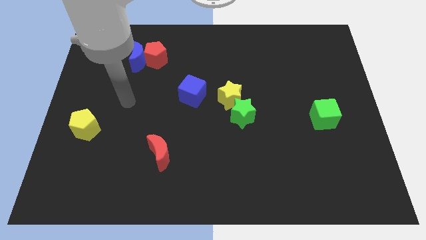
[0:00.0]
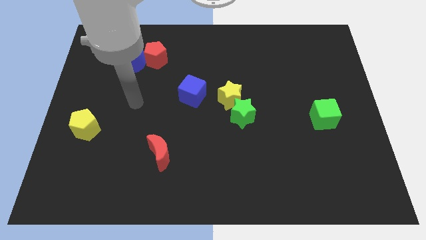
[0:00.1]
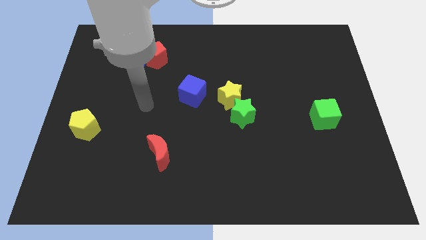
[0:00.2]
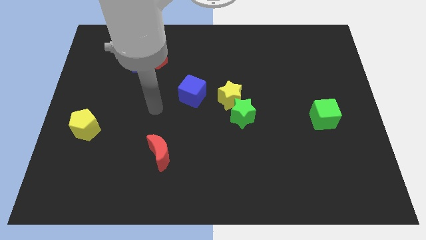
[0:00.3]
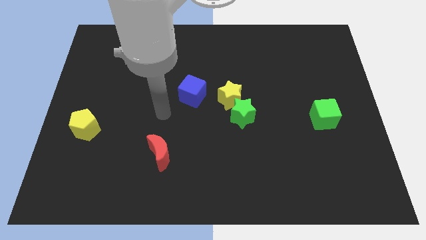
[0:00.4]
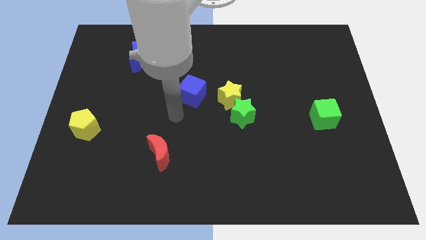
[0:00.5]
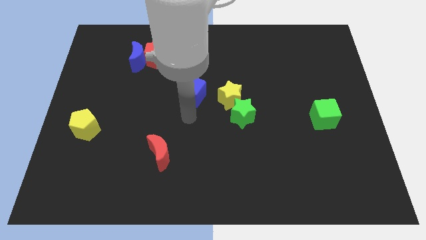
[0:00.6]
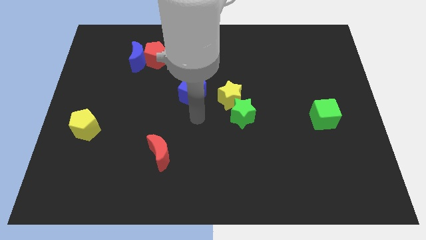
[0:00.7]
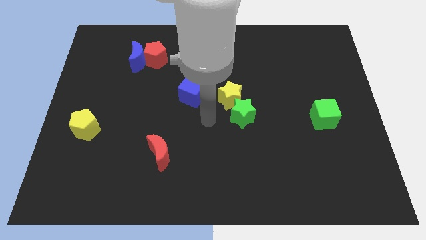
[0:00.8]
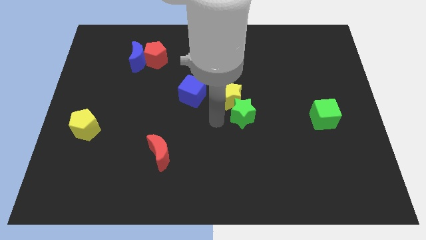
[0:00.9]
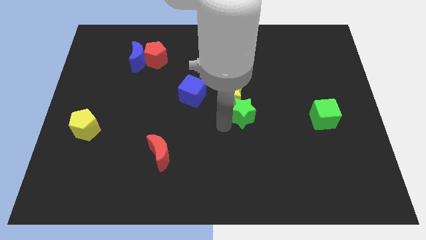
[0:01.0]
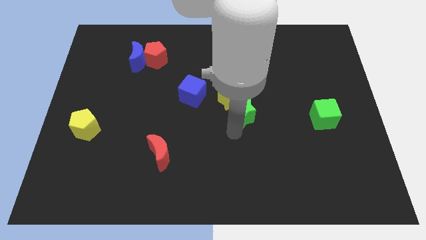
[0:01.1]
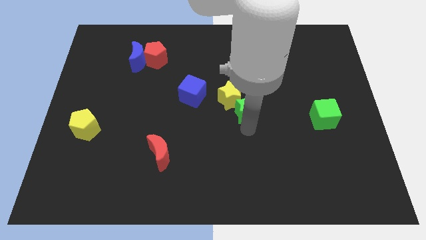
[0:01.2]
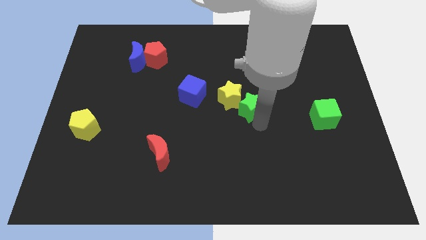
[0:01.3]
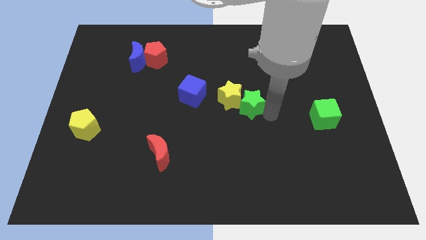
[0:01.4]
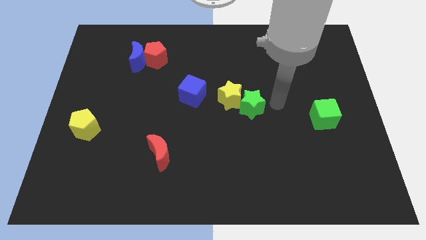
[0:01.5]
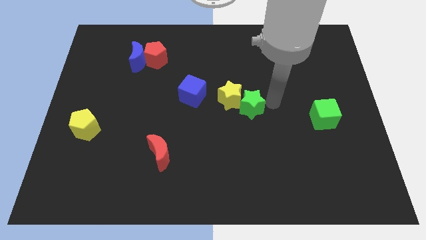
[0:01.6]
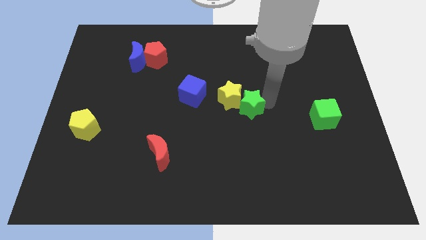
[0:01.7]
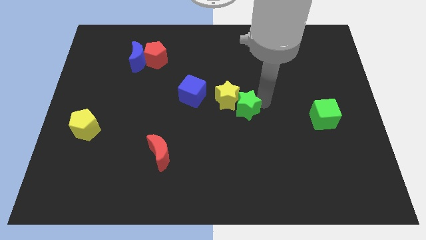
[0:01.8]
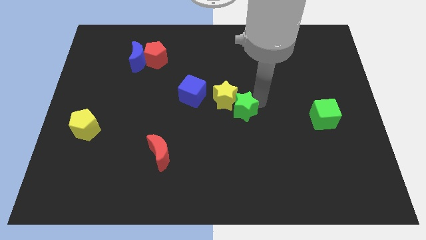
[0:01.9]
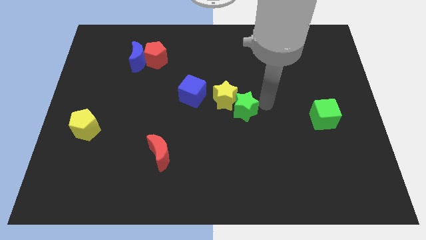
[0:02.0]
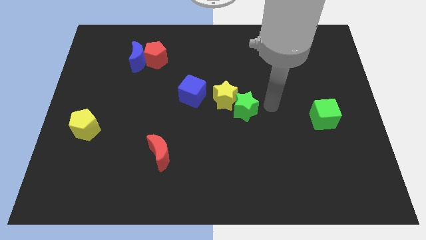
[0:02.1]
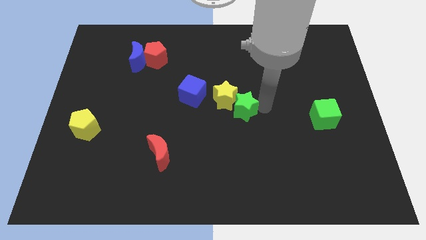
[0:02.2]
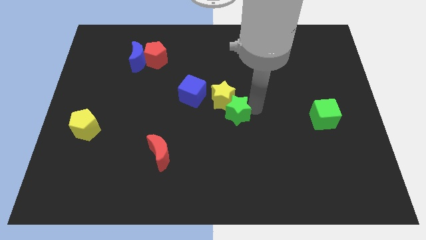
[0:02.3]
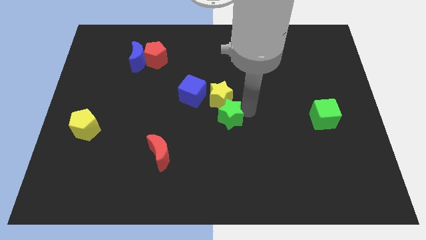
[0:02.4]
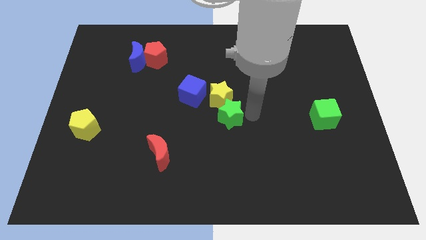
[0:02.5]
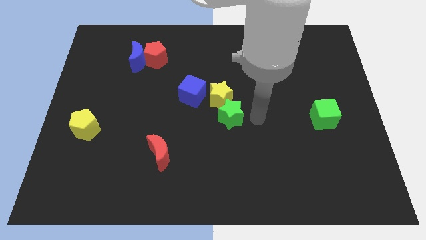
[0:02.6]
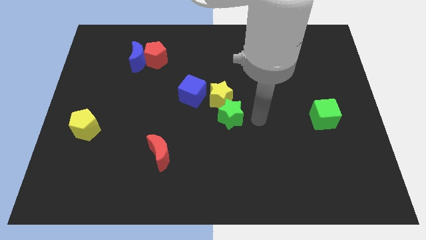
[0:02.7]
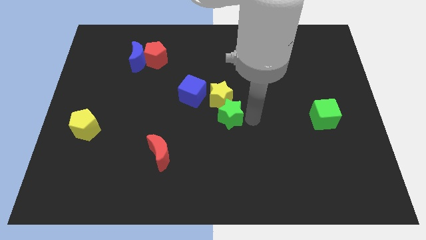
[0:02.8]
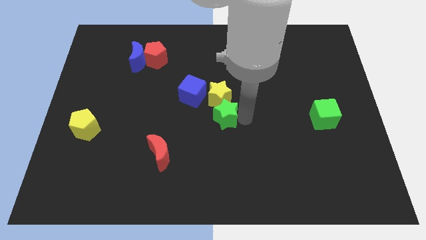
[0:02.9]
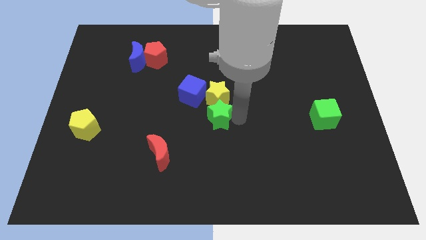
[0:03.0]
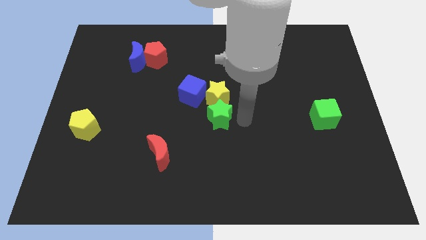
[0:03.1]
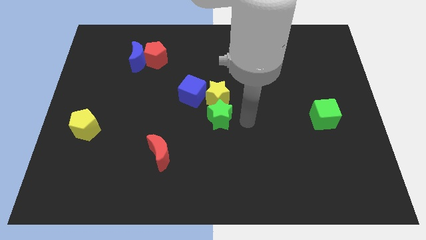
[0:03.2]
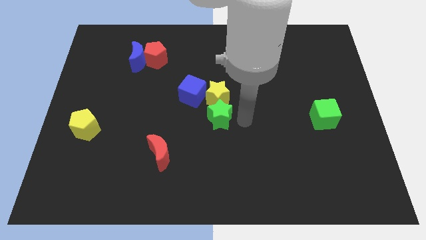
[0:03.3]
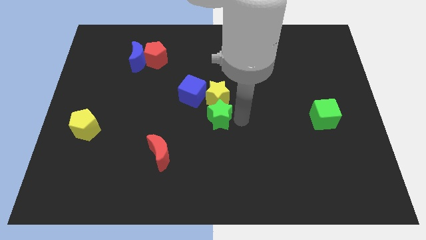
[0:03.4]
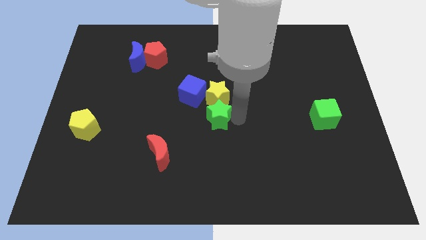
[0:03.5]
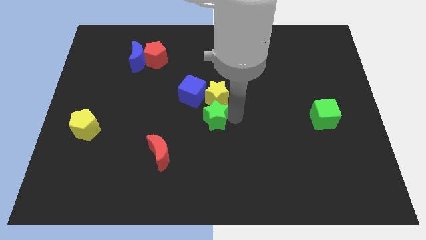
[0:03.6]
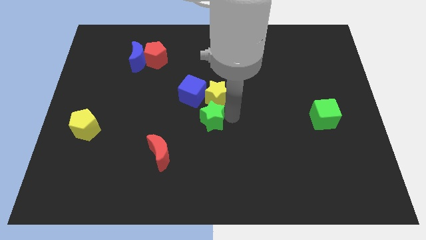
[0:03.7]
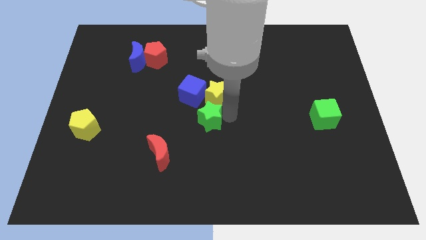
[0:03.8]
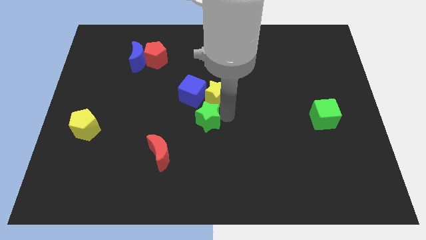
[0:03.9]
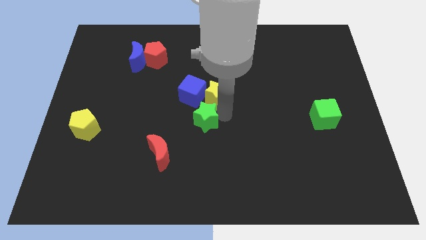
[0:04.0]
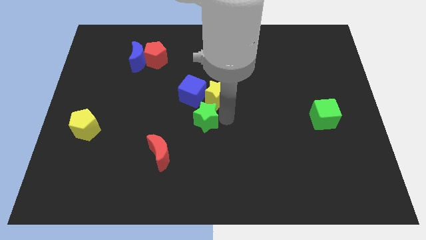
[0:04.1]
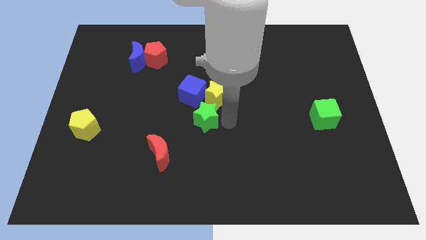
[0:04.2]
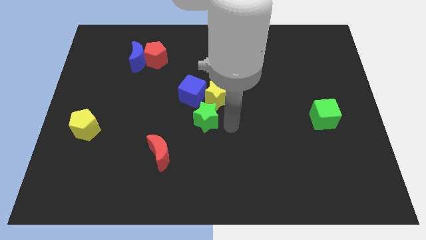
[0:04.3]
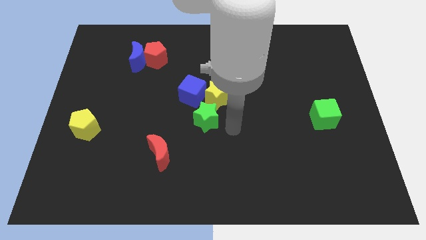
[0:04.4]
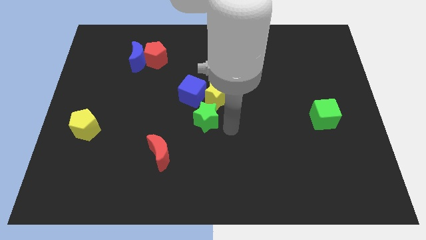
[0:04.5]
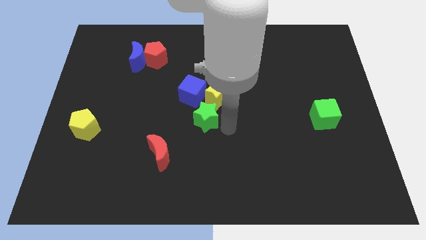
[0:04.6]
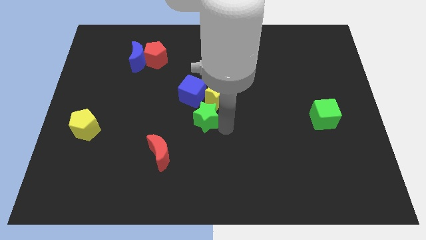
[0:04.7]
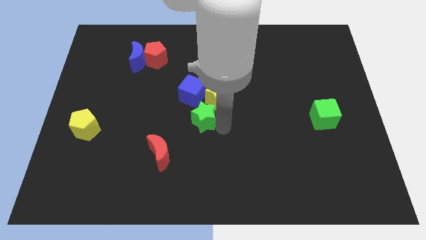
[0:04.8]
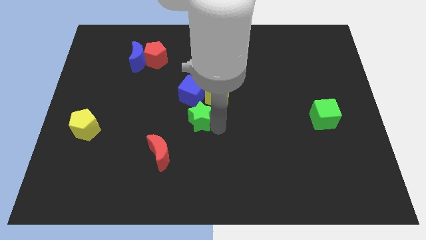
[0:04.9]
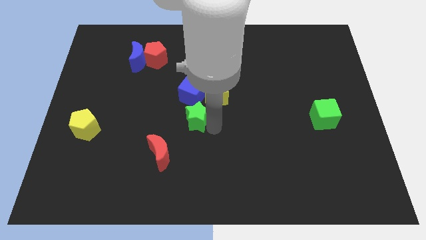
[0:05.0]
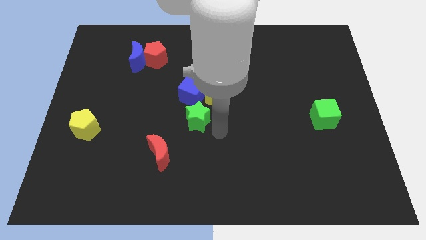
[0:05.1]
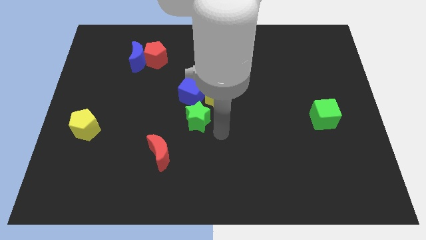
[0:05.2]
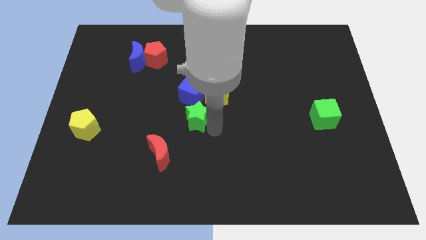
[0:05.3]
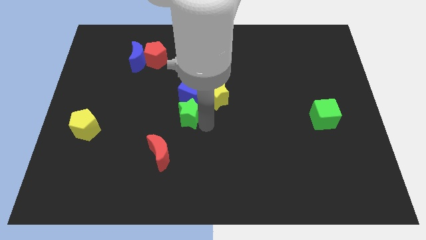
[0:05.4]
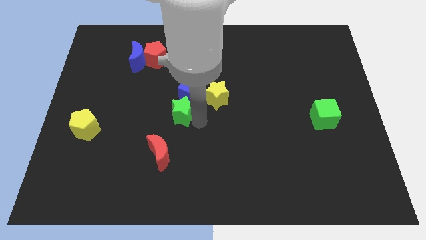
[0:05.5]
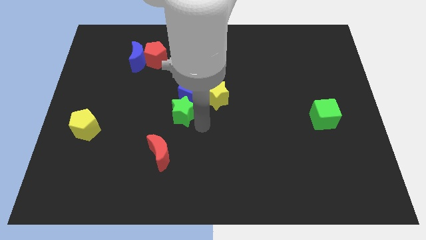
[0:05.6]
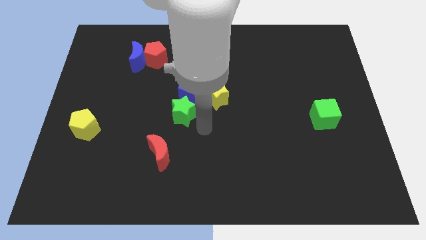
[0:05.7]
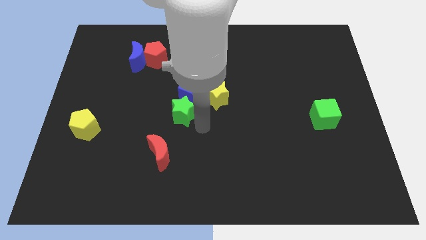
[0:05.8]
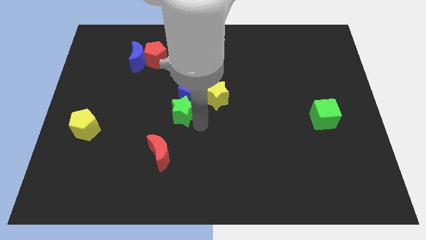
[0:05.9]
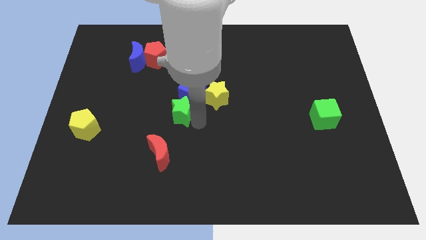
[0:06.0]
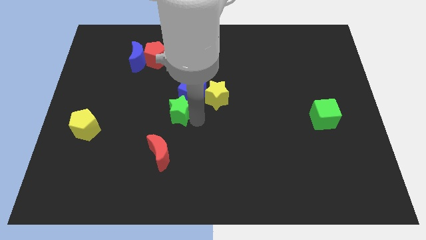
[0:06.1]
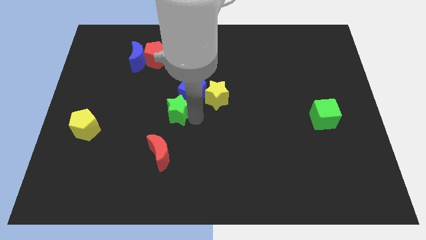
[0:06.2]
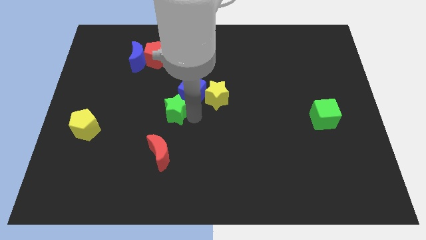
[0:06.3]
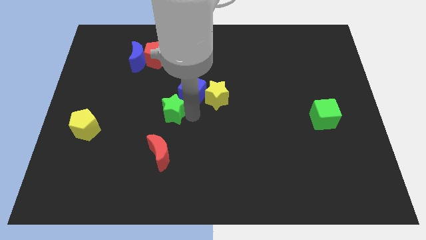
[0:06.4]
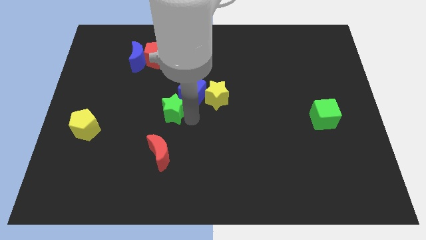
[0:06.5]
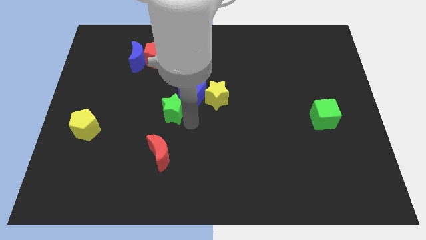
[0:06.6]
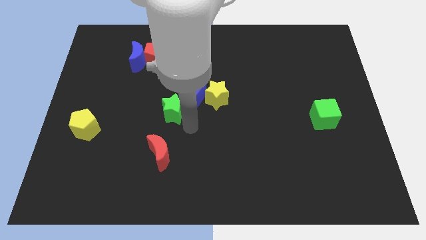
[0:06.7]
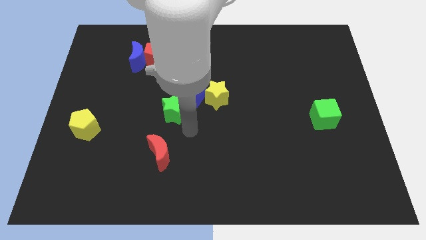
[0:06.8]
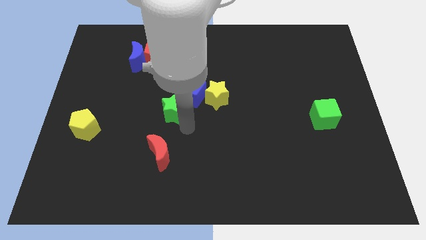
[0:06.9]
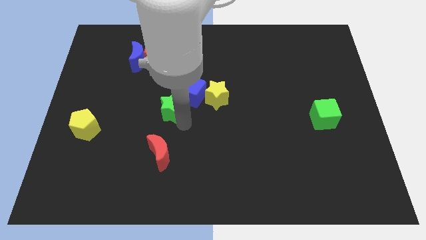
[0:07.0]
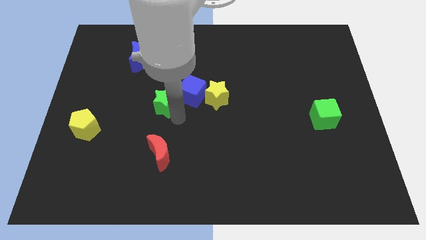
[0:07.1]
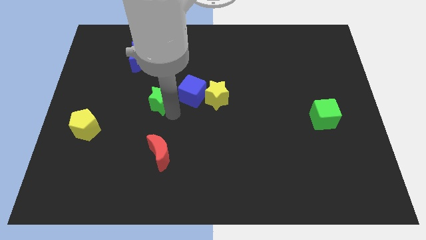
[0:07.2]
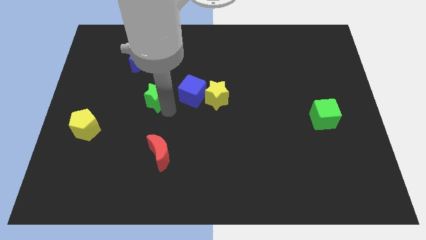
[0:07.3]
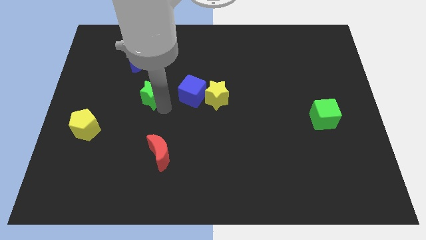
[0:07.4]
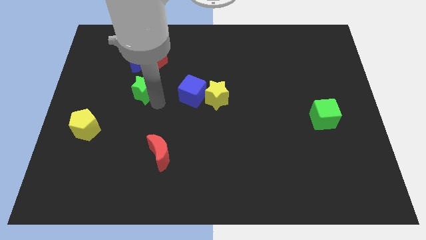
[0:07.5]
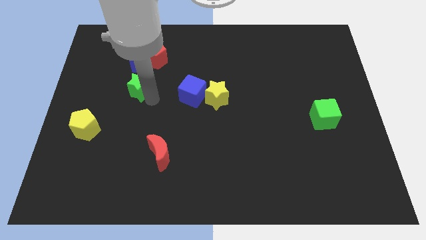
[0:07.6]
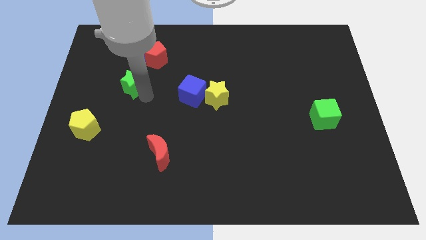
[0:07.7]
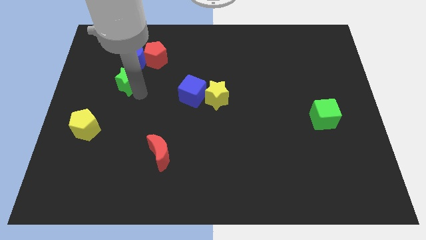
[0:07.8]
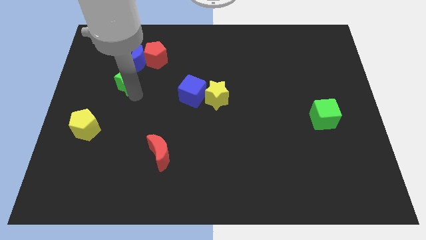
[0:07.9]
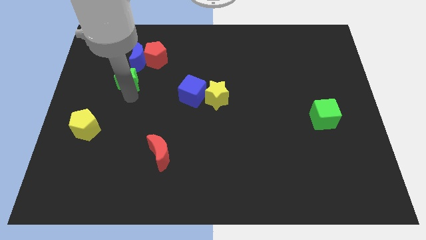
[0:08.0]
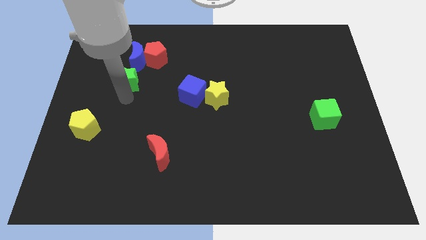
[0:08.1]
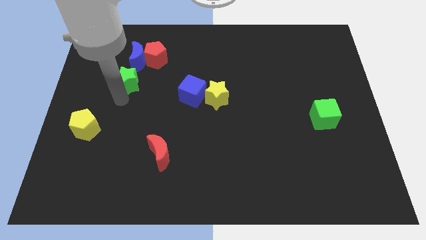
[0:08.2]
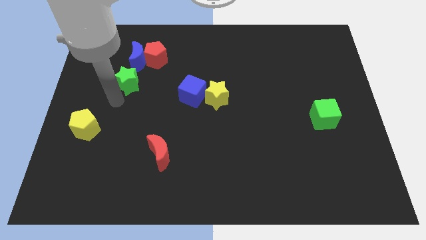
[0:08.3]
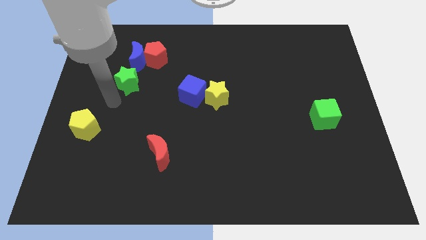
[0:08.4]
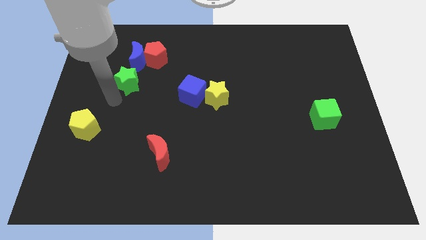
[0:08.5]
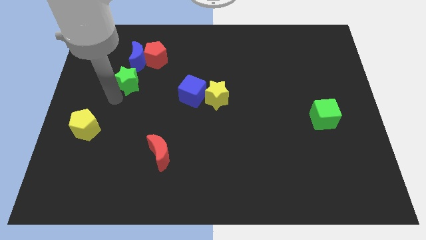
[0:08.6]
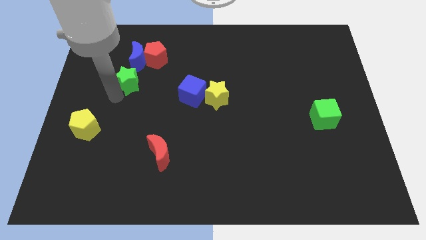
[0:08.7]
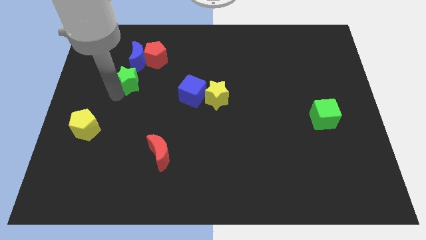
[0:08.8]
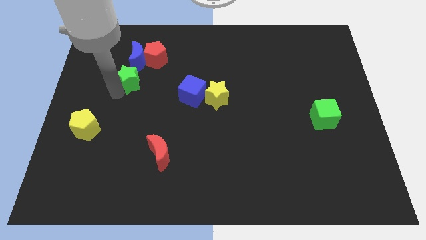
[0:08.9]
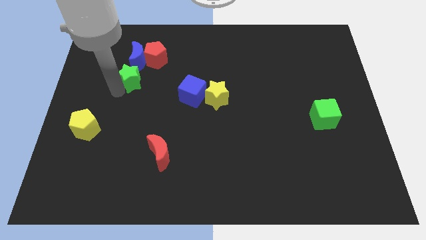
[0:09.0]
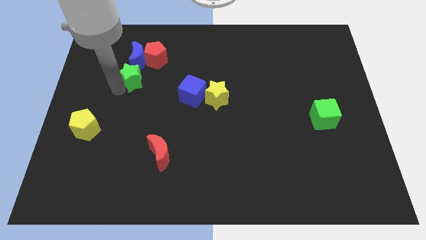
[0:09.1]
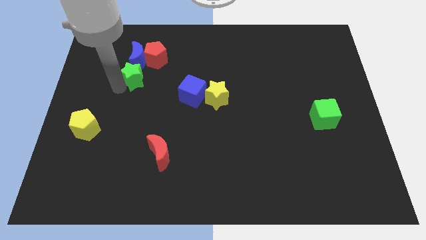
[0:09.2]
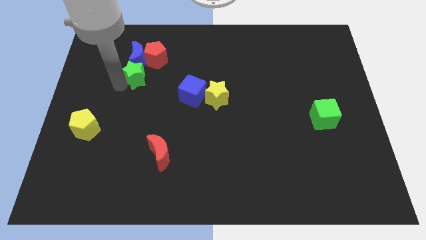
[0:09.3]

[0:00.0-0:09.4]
push the green star next to the blue moon
